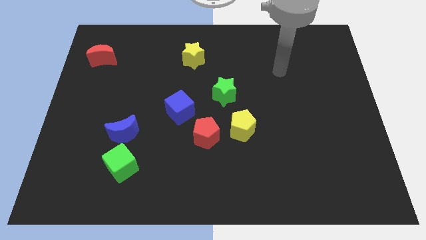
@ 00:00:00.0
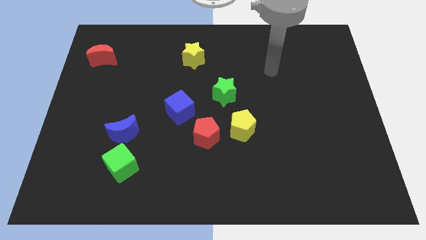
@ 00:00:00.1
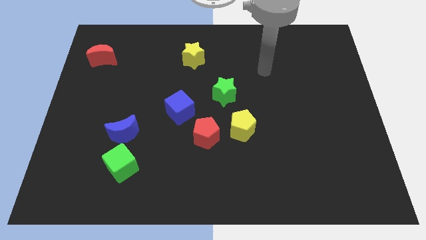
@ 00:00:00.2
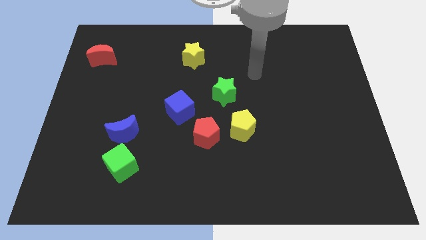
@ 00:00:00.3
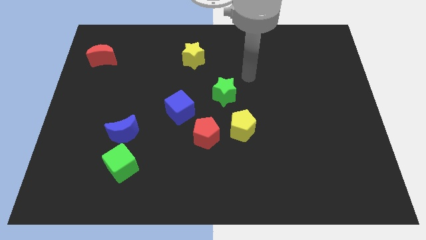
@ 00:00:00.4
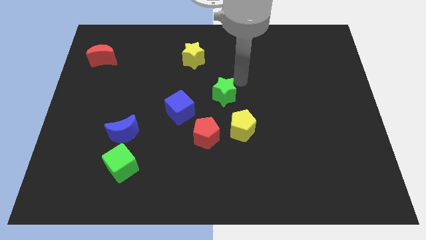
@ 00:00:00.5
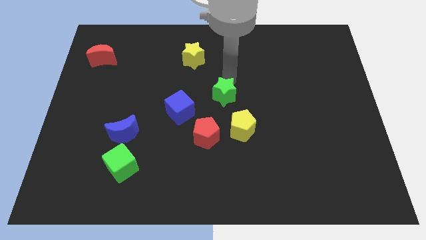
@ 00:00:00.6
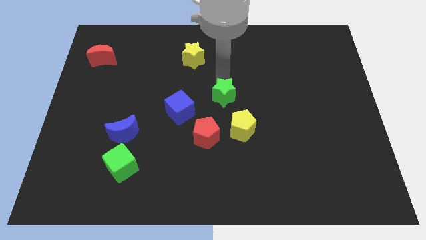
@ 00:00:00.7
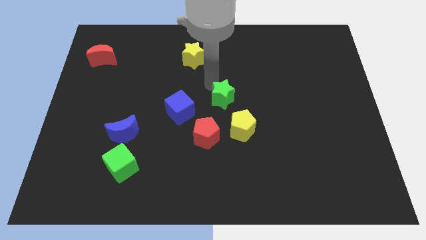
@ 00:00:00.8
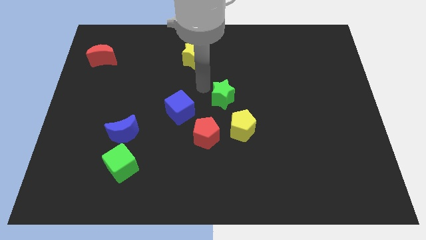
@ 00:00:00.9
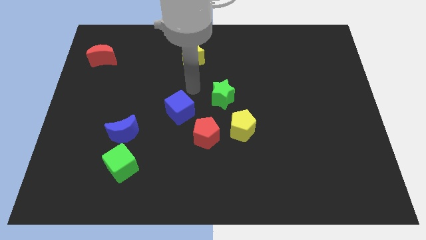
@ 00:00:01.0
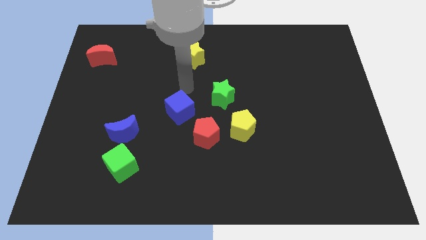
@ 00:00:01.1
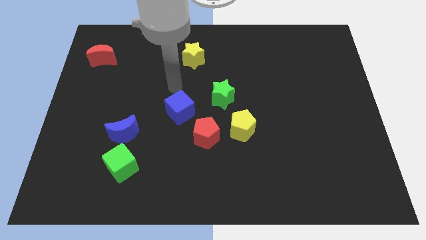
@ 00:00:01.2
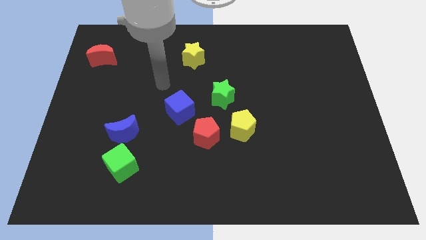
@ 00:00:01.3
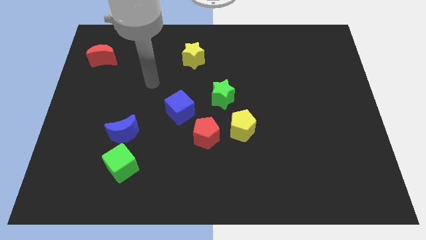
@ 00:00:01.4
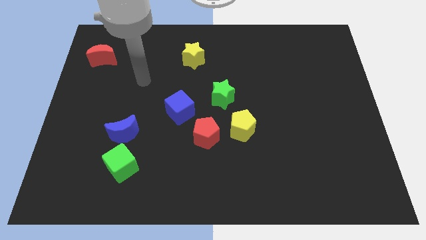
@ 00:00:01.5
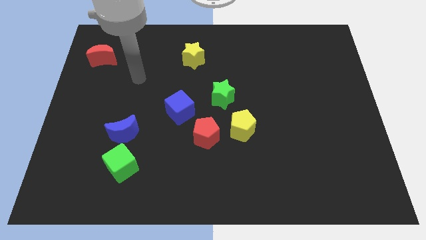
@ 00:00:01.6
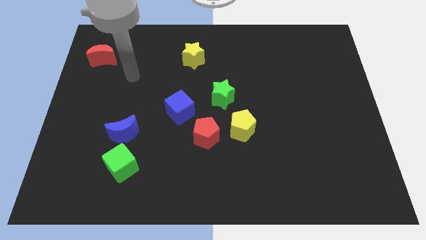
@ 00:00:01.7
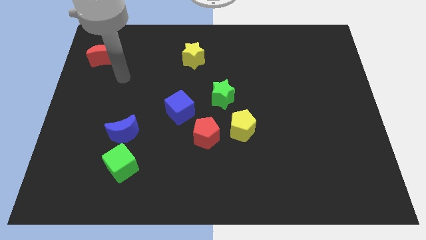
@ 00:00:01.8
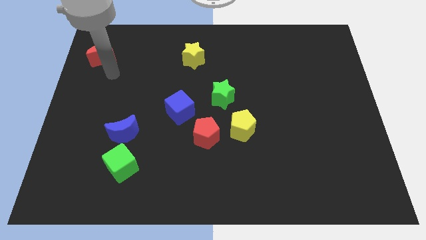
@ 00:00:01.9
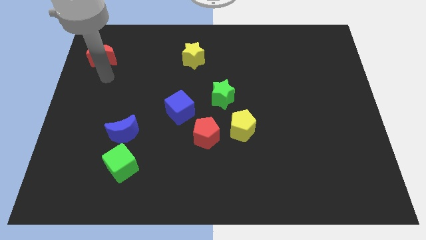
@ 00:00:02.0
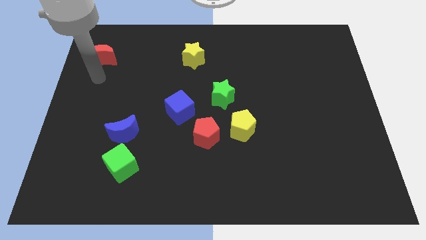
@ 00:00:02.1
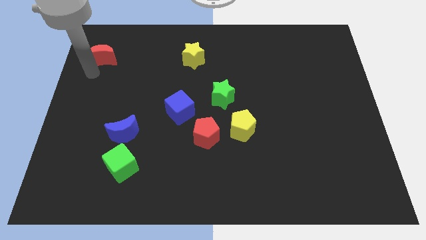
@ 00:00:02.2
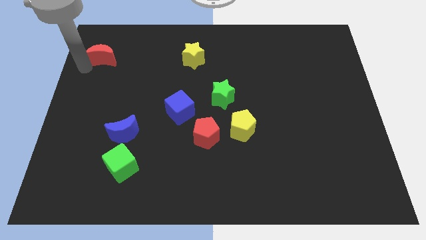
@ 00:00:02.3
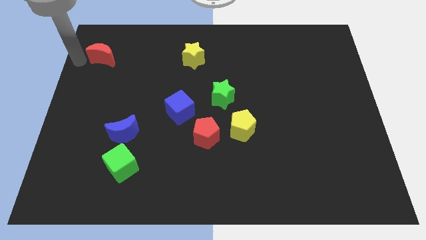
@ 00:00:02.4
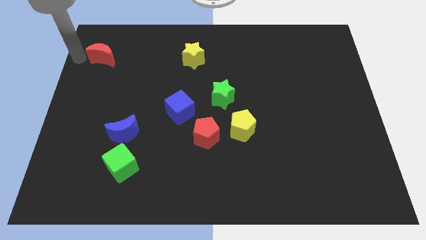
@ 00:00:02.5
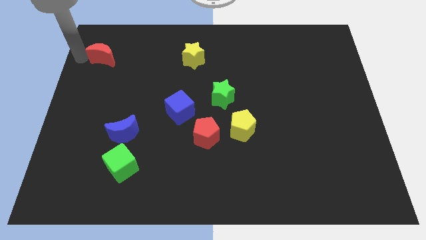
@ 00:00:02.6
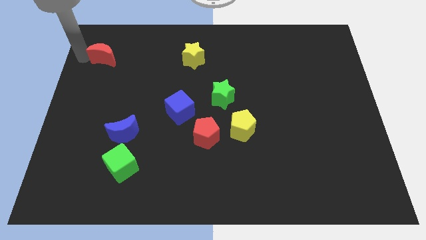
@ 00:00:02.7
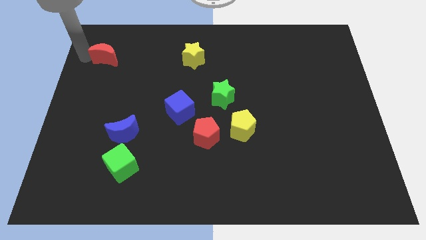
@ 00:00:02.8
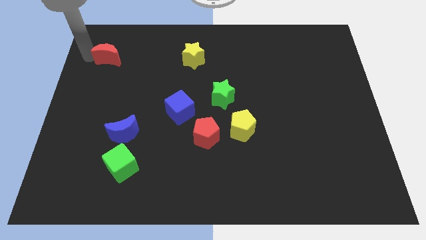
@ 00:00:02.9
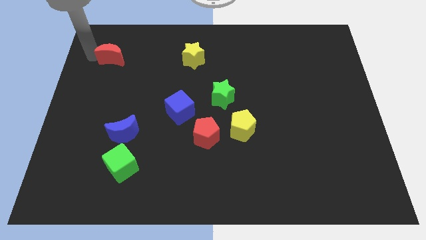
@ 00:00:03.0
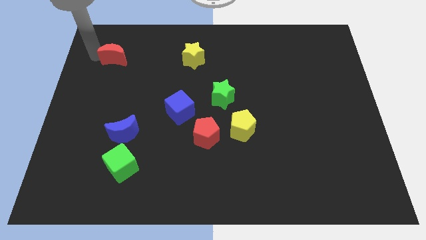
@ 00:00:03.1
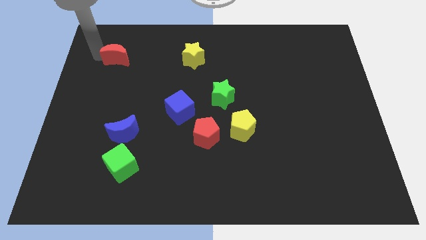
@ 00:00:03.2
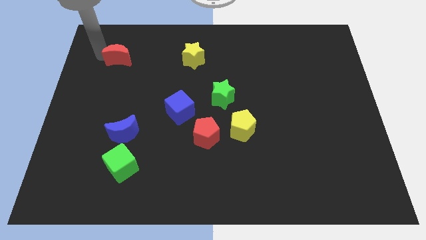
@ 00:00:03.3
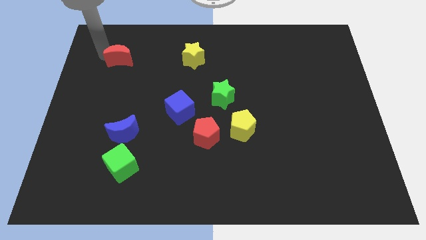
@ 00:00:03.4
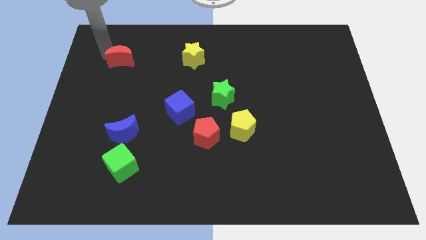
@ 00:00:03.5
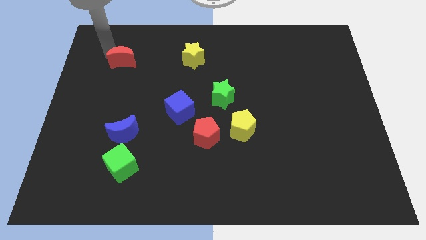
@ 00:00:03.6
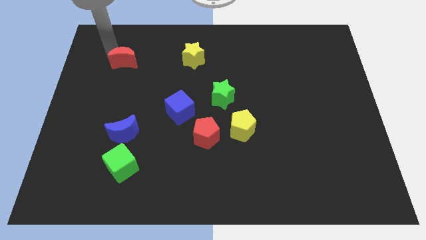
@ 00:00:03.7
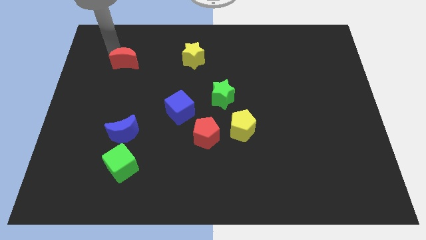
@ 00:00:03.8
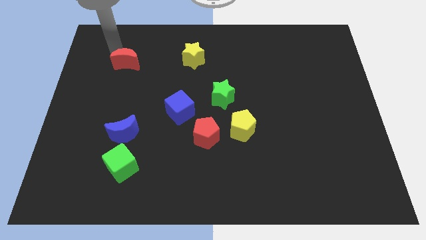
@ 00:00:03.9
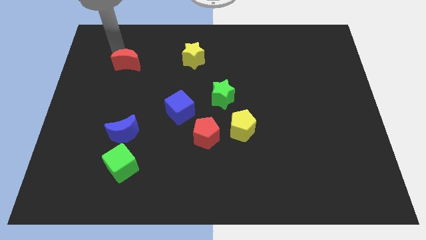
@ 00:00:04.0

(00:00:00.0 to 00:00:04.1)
slide the red moon a little right

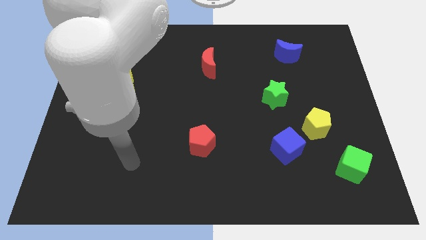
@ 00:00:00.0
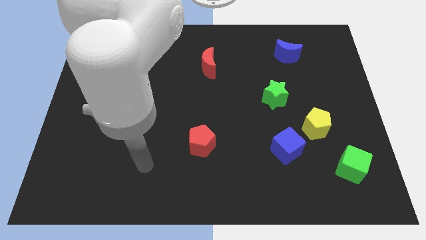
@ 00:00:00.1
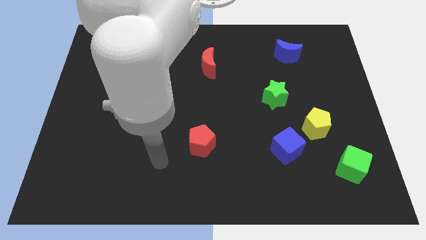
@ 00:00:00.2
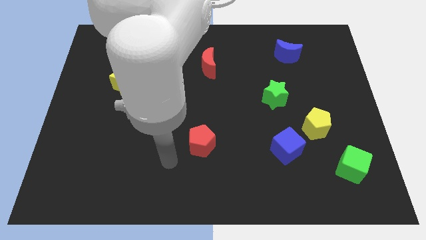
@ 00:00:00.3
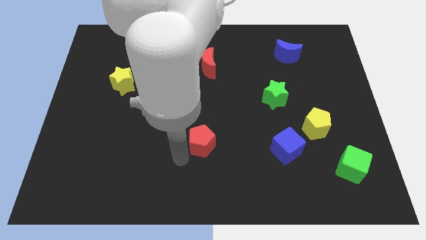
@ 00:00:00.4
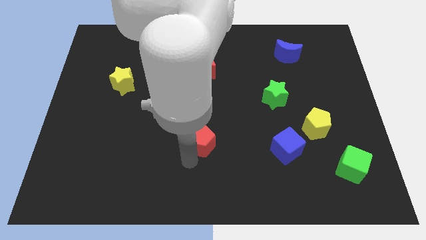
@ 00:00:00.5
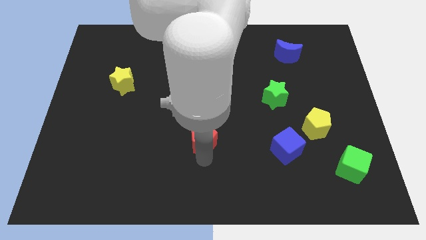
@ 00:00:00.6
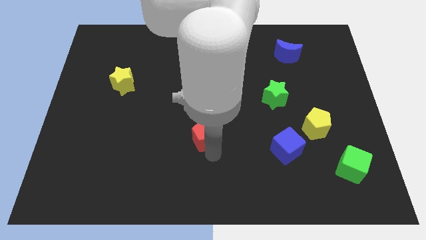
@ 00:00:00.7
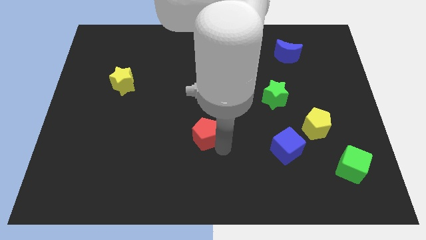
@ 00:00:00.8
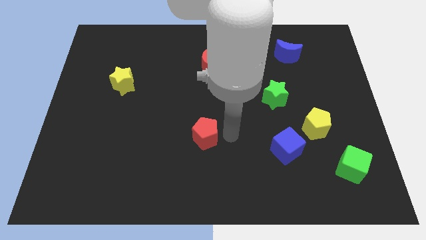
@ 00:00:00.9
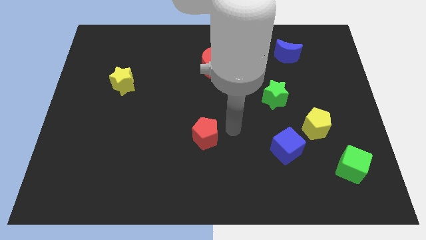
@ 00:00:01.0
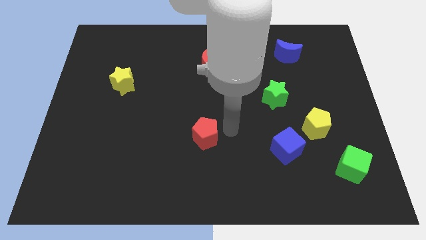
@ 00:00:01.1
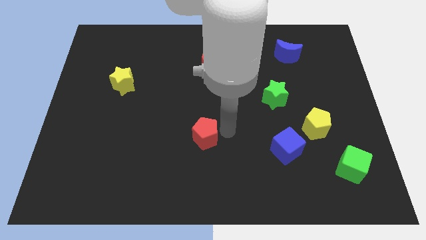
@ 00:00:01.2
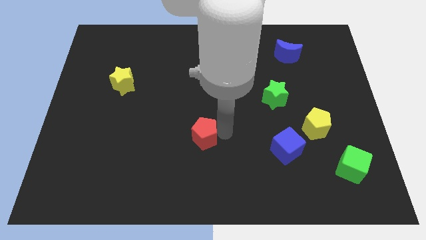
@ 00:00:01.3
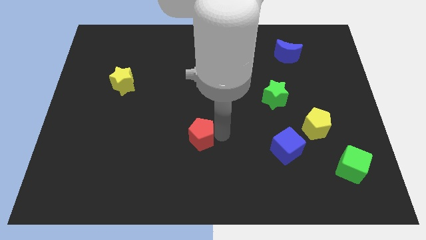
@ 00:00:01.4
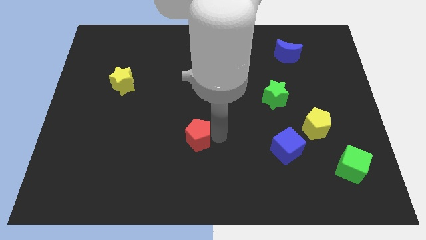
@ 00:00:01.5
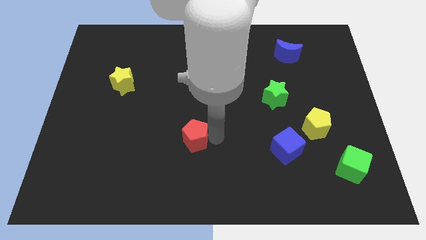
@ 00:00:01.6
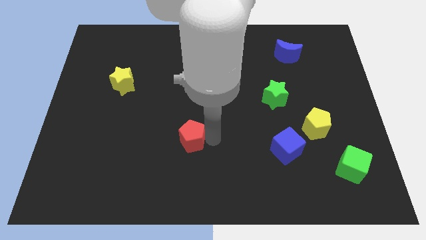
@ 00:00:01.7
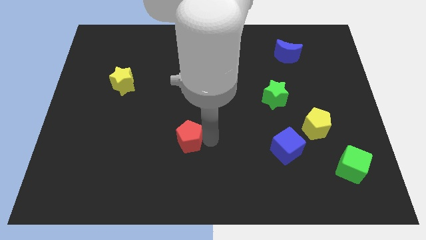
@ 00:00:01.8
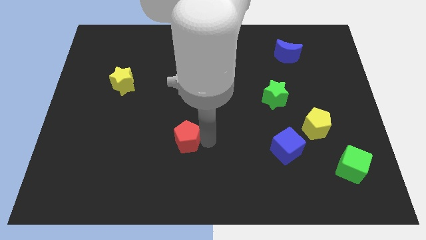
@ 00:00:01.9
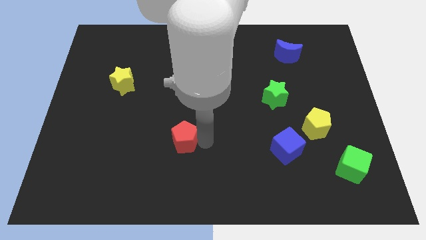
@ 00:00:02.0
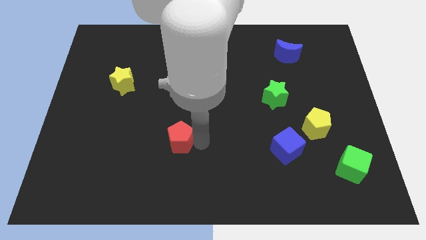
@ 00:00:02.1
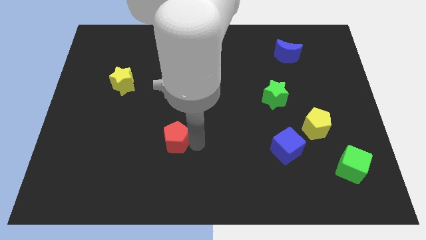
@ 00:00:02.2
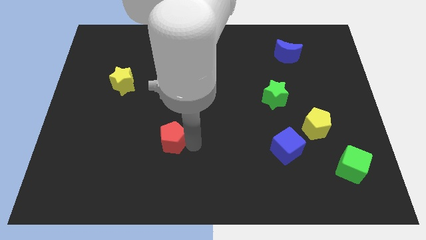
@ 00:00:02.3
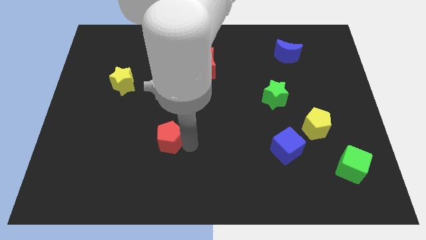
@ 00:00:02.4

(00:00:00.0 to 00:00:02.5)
slide the red pentagon left slightly

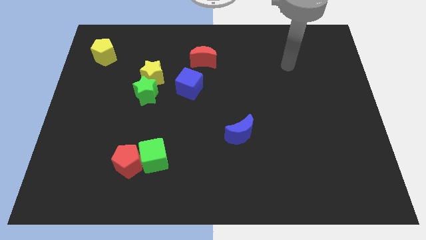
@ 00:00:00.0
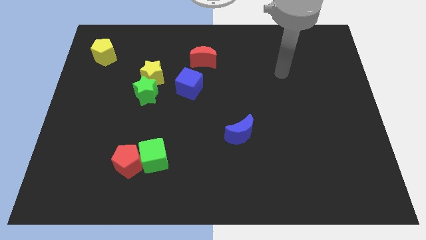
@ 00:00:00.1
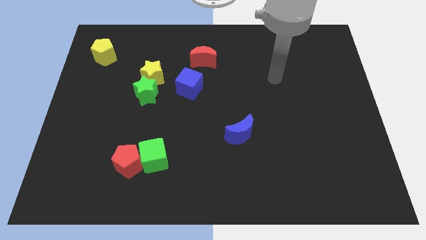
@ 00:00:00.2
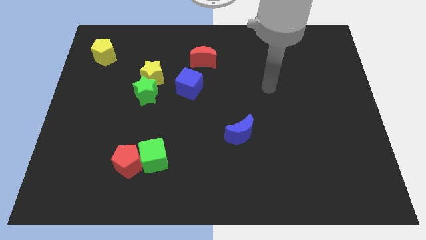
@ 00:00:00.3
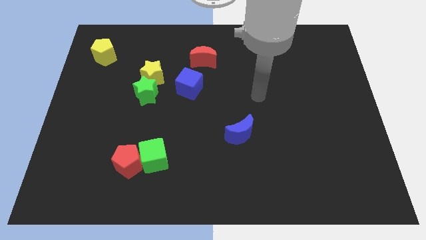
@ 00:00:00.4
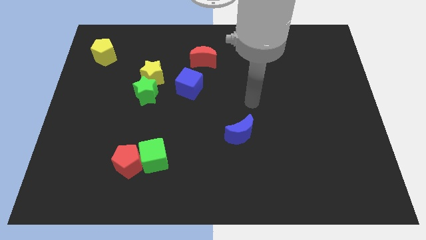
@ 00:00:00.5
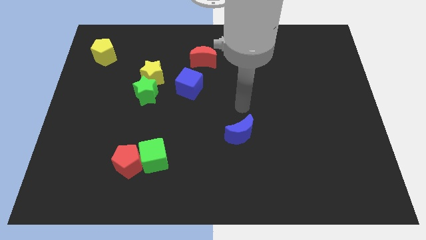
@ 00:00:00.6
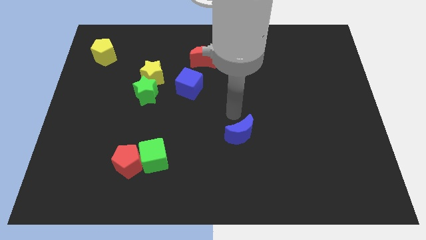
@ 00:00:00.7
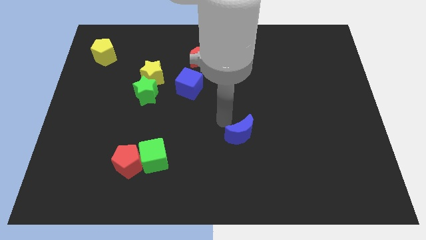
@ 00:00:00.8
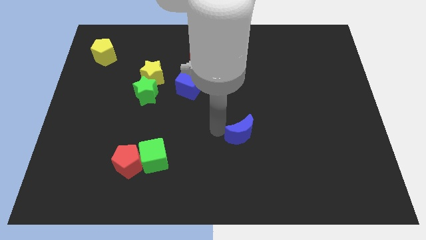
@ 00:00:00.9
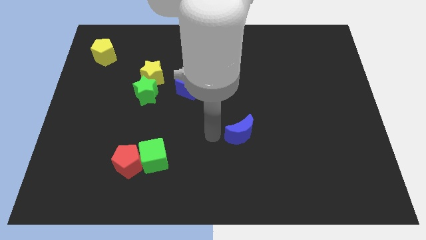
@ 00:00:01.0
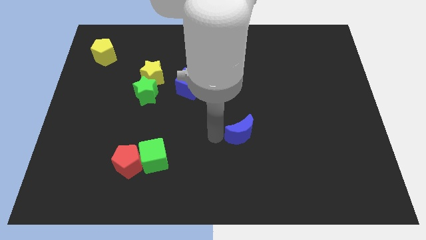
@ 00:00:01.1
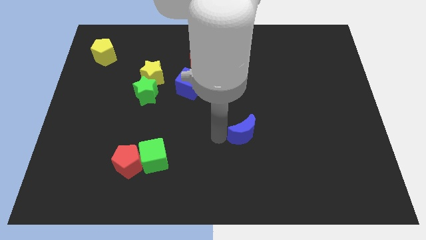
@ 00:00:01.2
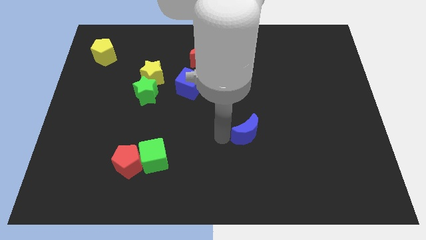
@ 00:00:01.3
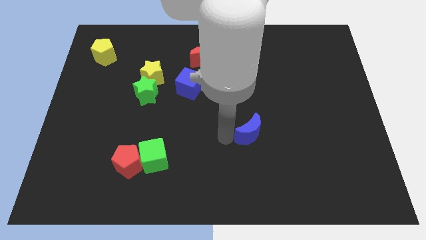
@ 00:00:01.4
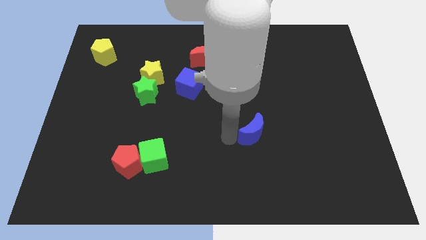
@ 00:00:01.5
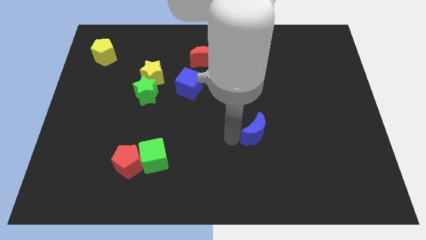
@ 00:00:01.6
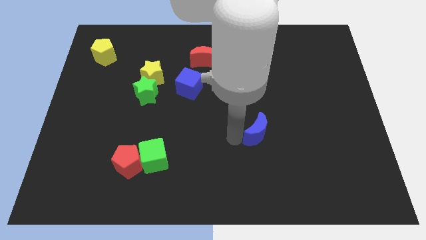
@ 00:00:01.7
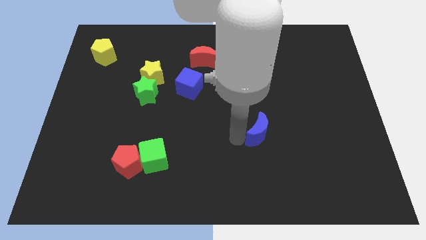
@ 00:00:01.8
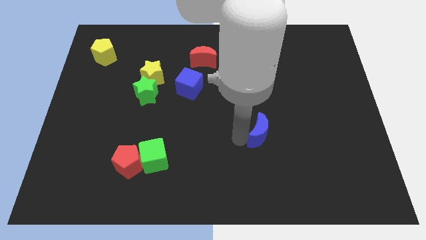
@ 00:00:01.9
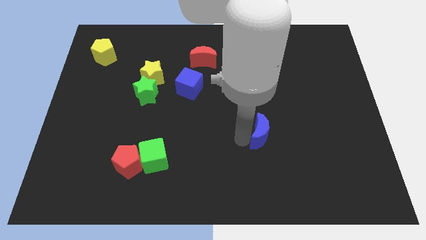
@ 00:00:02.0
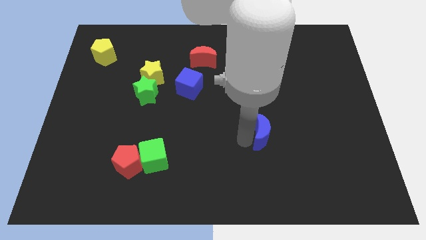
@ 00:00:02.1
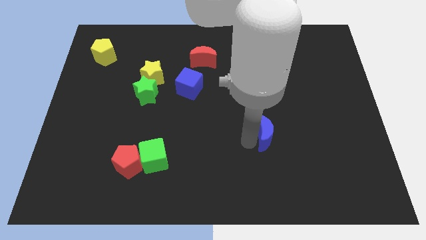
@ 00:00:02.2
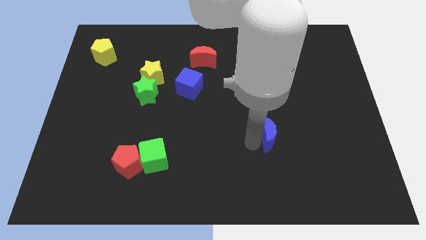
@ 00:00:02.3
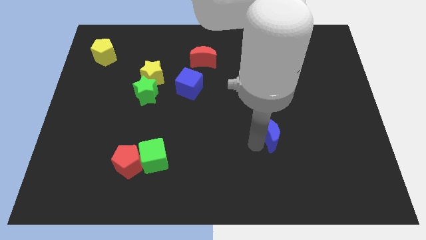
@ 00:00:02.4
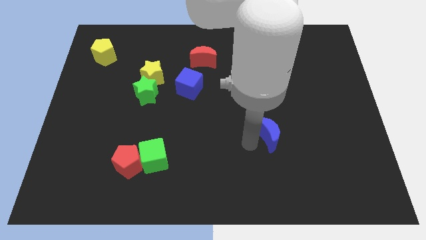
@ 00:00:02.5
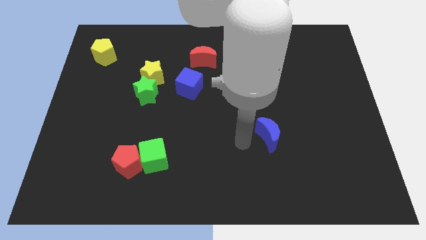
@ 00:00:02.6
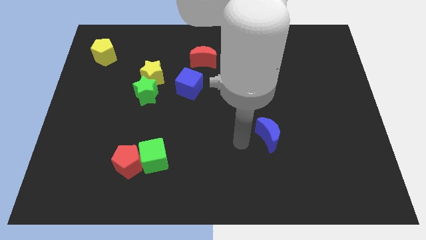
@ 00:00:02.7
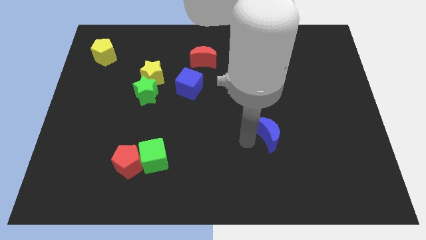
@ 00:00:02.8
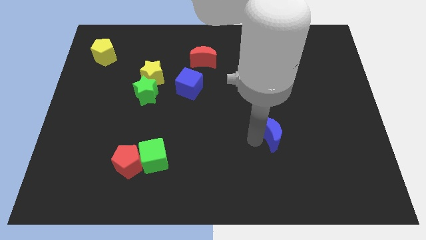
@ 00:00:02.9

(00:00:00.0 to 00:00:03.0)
slide the blue moon right a little bit
